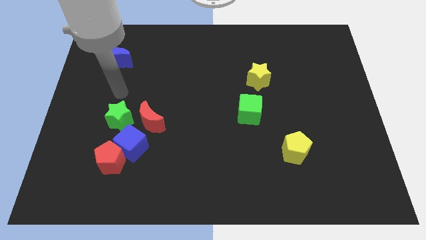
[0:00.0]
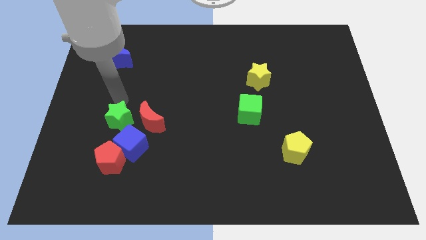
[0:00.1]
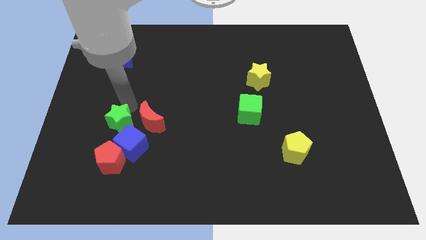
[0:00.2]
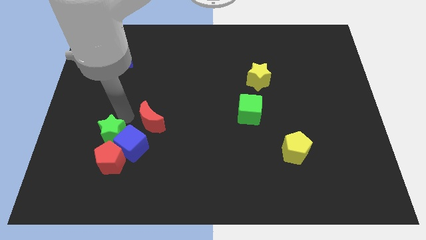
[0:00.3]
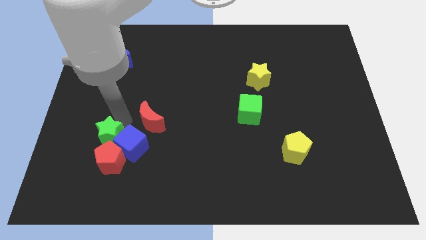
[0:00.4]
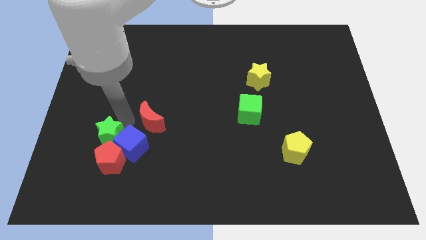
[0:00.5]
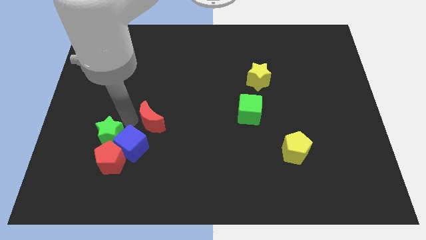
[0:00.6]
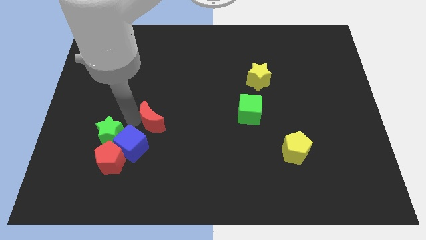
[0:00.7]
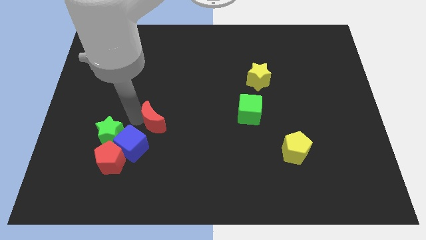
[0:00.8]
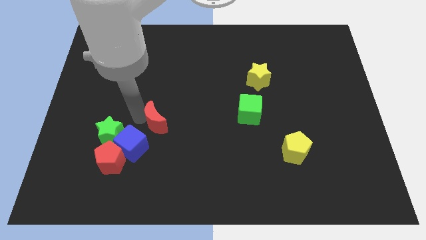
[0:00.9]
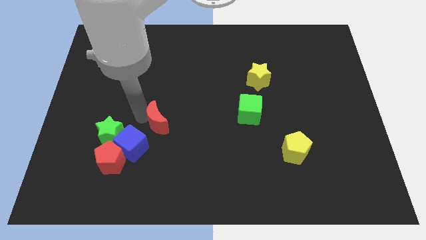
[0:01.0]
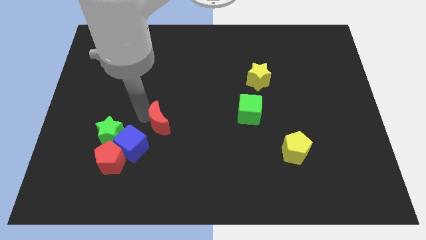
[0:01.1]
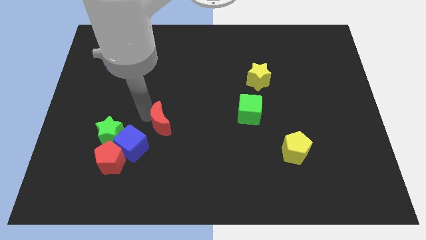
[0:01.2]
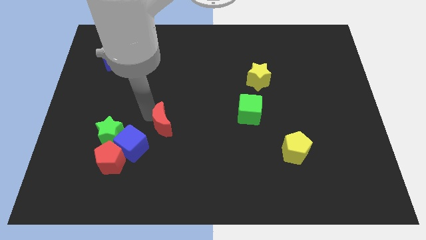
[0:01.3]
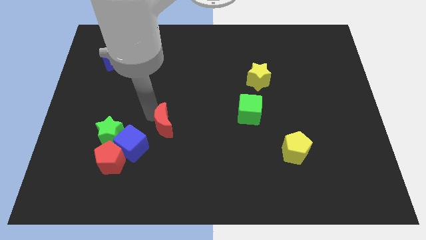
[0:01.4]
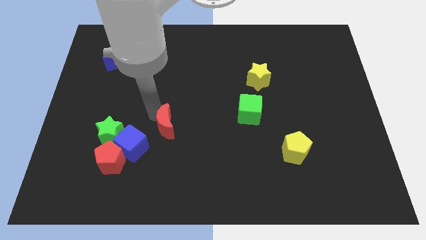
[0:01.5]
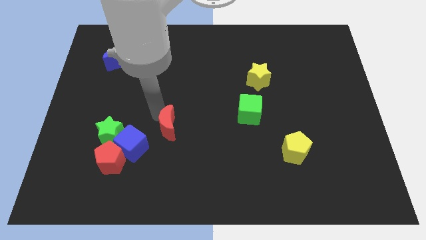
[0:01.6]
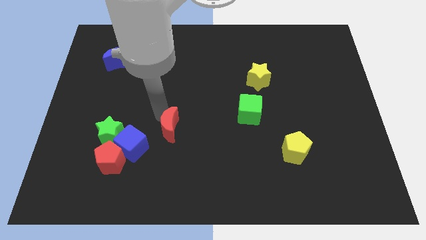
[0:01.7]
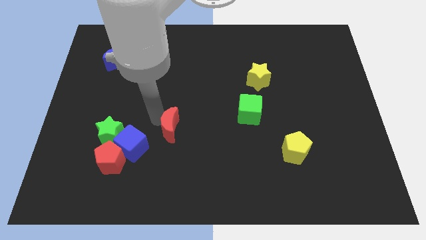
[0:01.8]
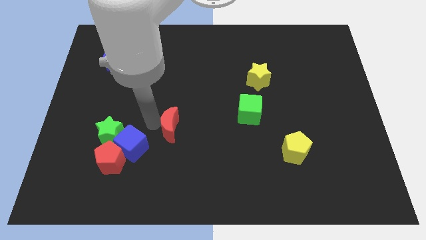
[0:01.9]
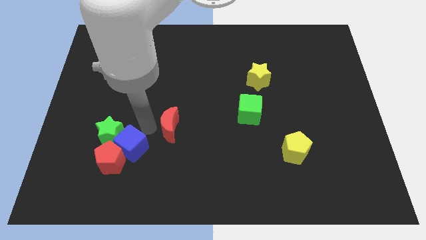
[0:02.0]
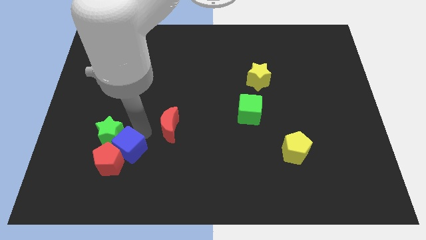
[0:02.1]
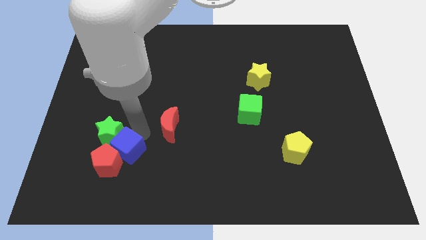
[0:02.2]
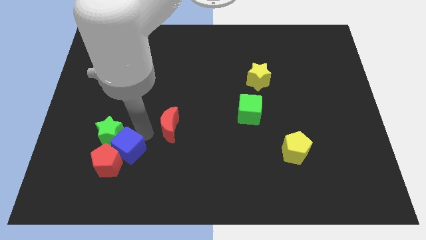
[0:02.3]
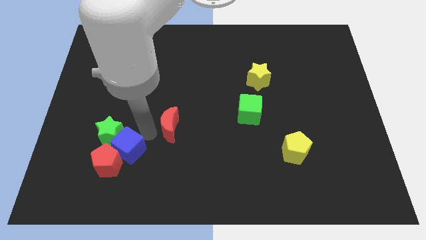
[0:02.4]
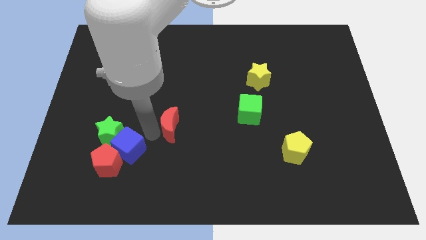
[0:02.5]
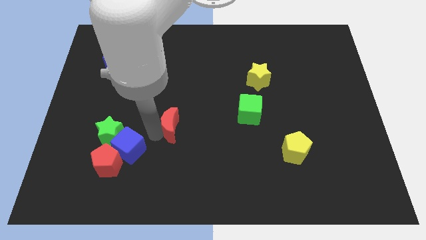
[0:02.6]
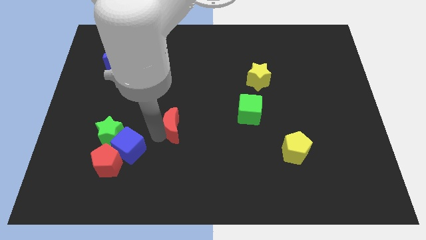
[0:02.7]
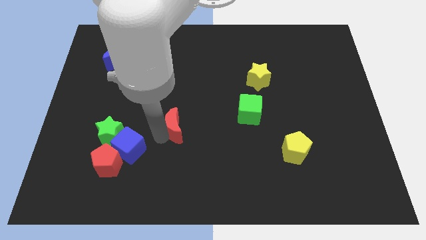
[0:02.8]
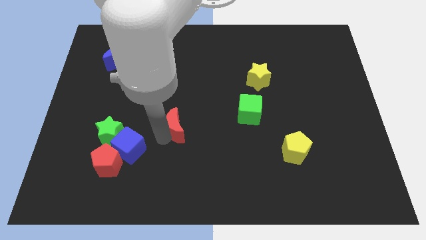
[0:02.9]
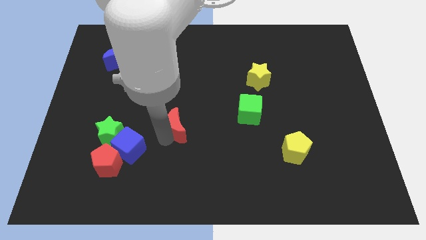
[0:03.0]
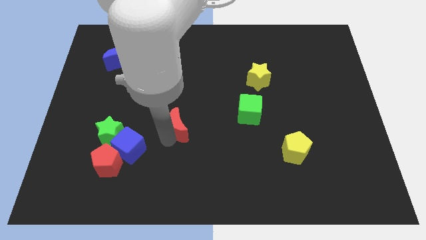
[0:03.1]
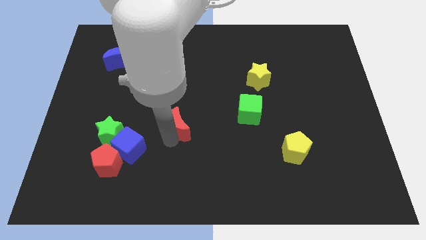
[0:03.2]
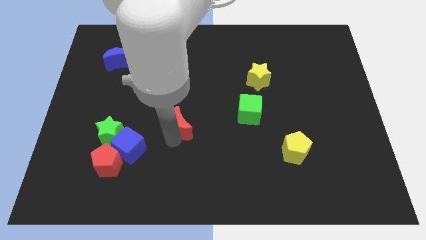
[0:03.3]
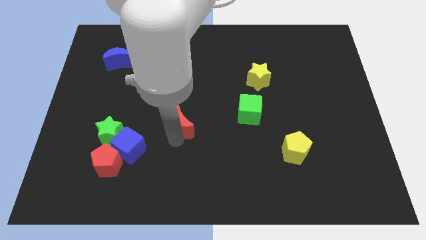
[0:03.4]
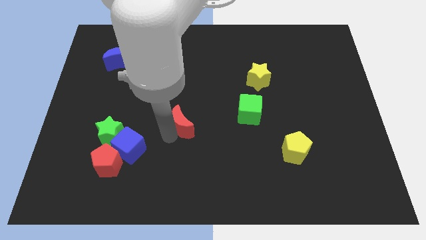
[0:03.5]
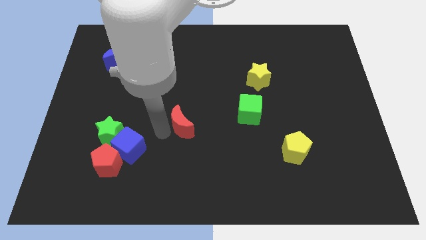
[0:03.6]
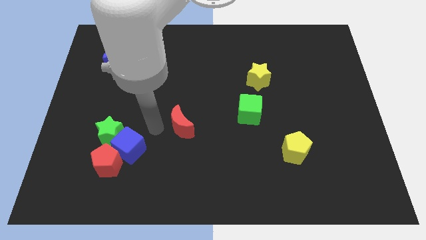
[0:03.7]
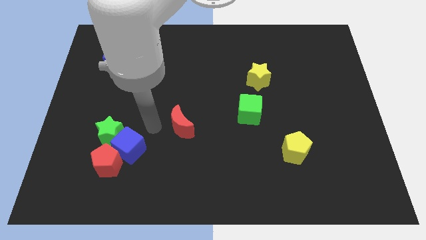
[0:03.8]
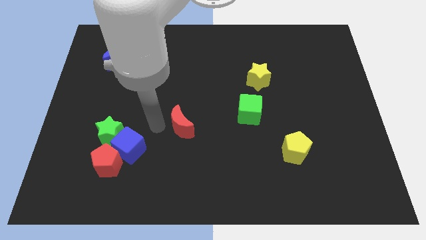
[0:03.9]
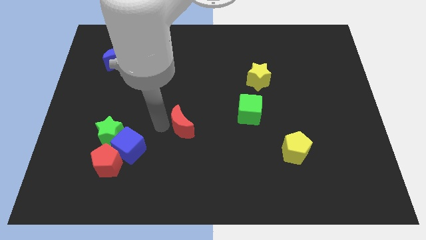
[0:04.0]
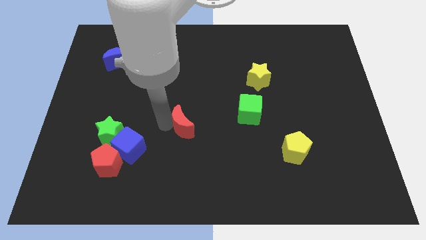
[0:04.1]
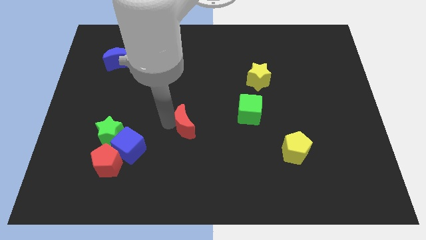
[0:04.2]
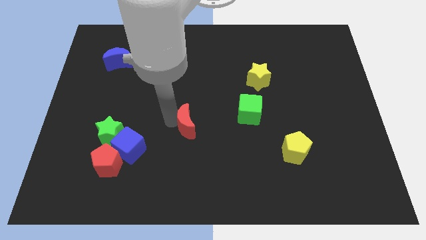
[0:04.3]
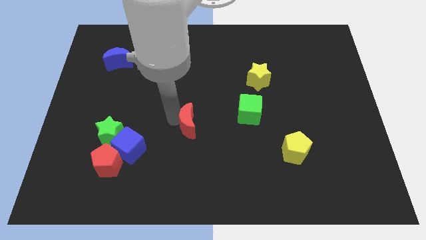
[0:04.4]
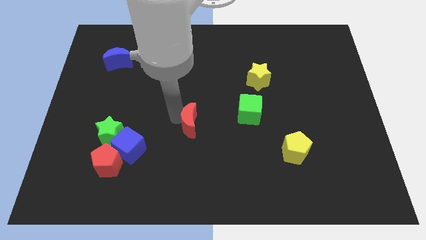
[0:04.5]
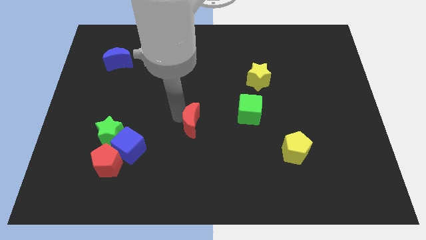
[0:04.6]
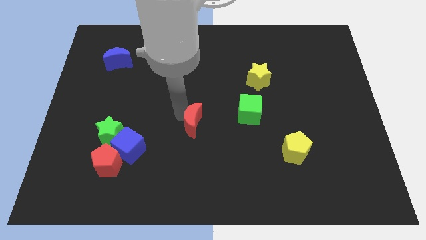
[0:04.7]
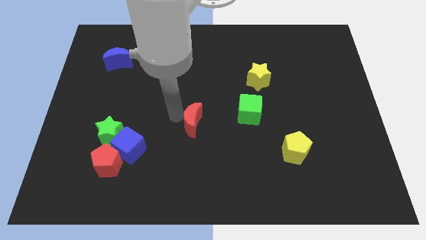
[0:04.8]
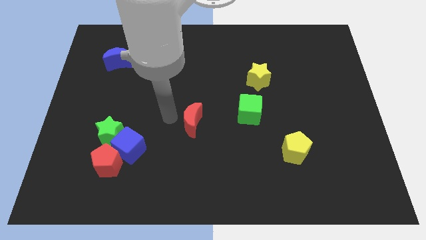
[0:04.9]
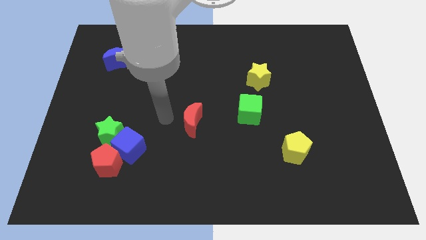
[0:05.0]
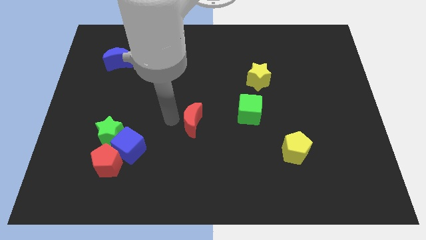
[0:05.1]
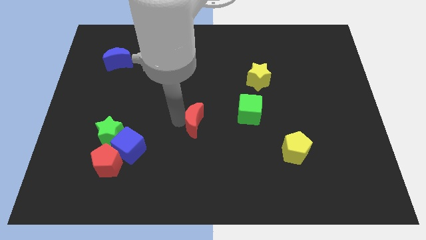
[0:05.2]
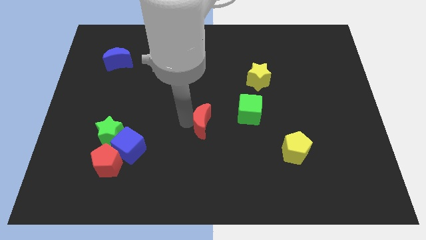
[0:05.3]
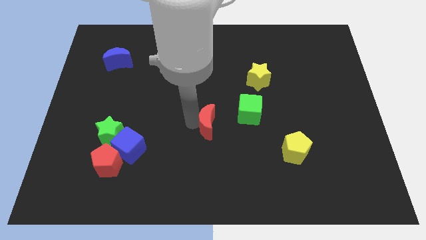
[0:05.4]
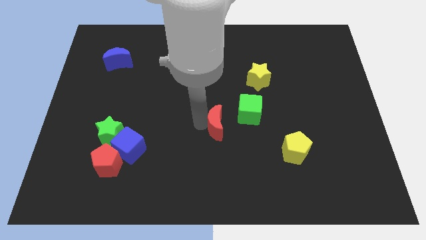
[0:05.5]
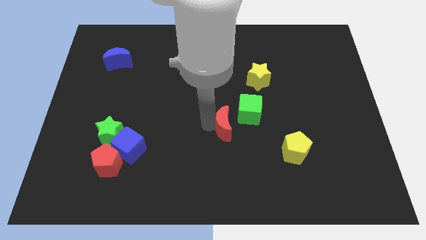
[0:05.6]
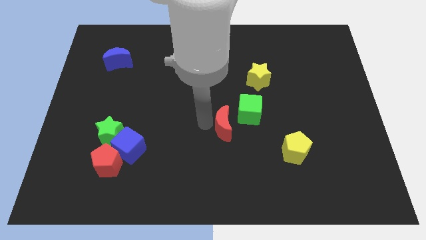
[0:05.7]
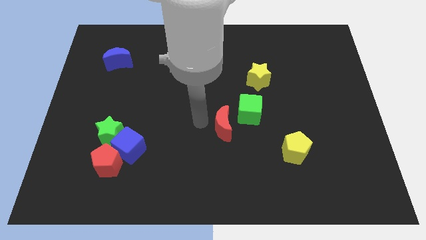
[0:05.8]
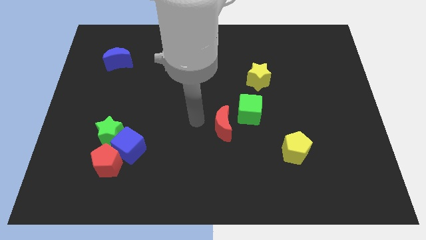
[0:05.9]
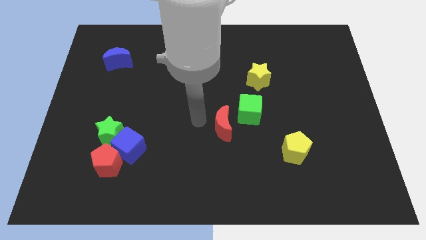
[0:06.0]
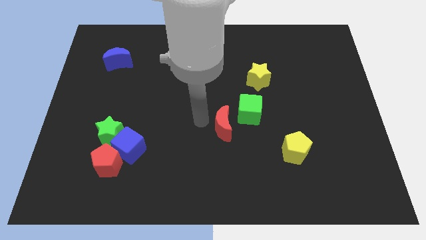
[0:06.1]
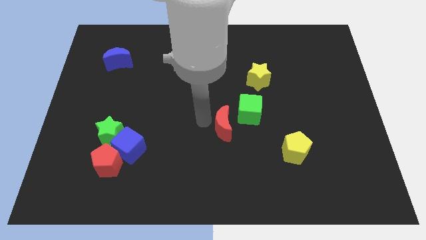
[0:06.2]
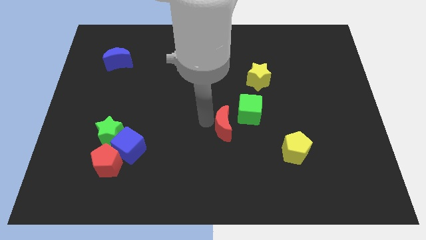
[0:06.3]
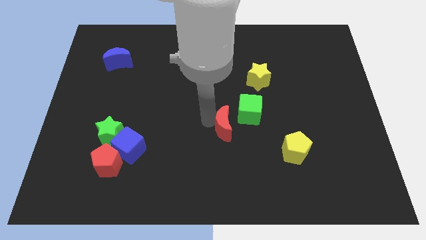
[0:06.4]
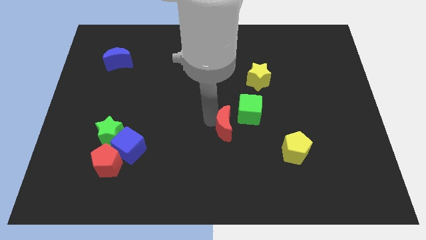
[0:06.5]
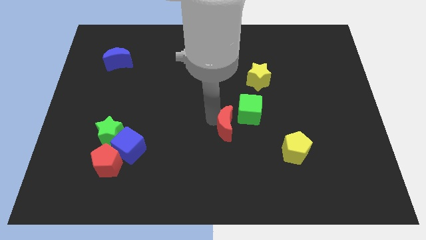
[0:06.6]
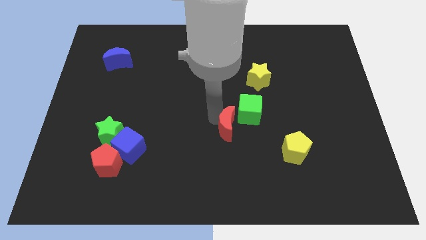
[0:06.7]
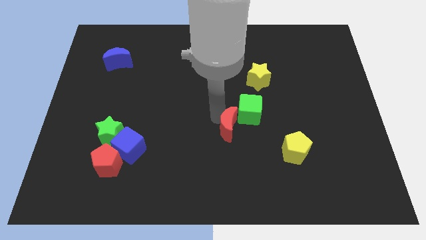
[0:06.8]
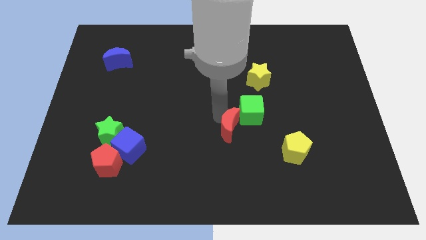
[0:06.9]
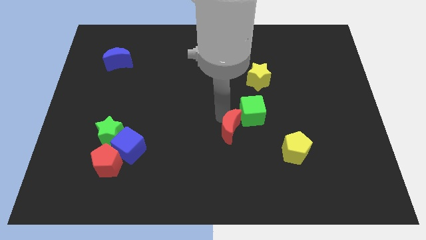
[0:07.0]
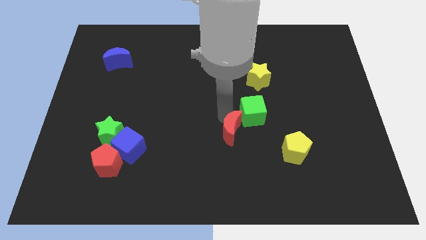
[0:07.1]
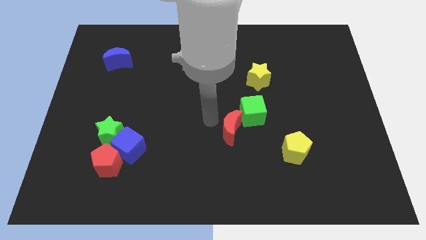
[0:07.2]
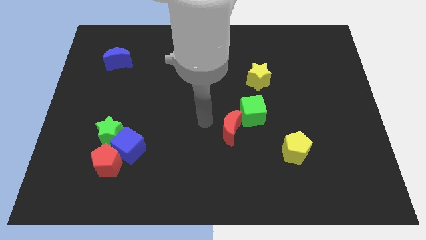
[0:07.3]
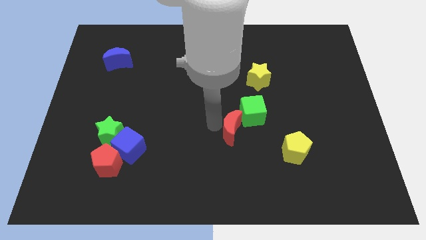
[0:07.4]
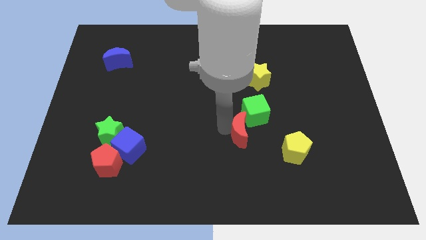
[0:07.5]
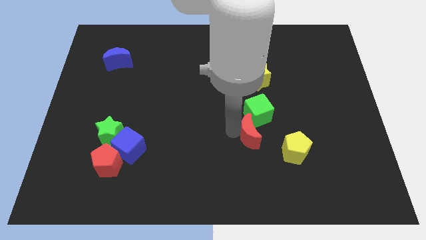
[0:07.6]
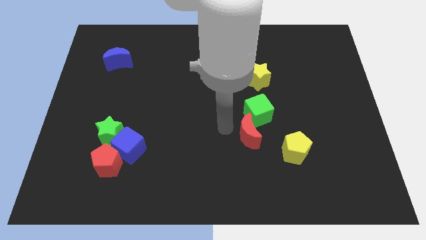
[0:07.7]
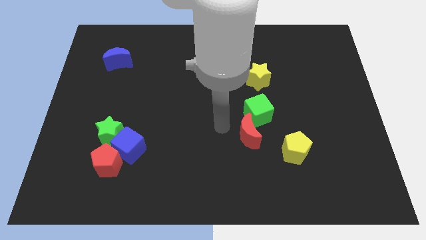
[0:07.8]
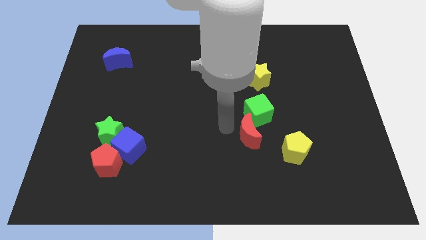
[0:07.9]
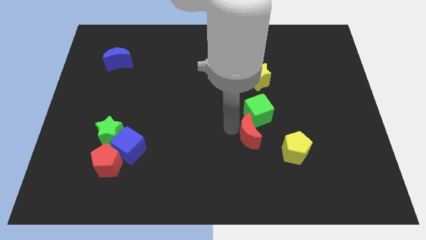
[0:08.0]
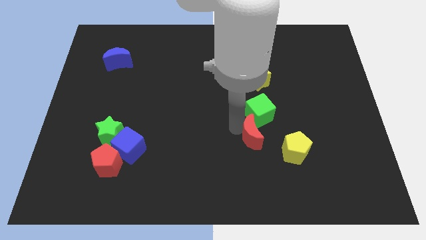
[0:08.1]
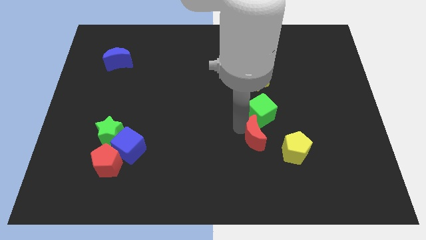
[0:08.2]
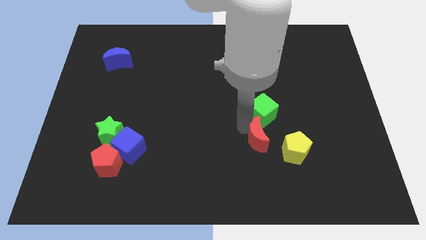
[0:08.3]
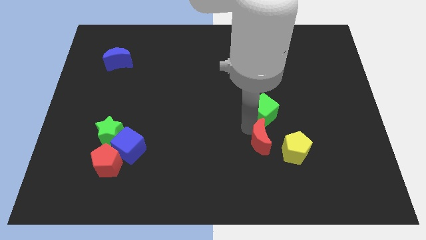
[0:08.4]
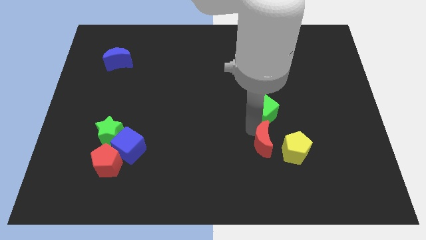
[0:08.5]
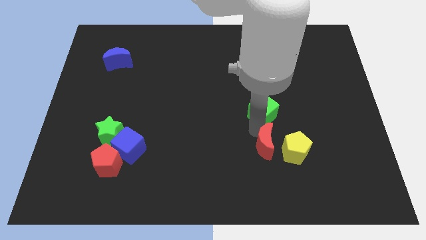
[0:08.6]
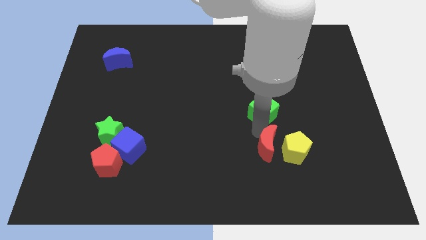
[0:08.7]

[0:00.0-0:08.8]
slide the red moon to the yellow pentagon
